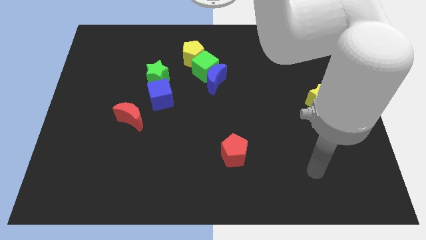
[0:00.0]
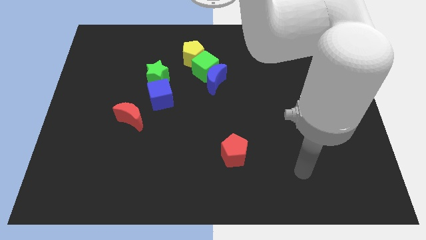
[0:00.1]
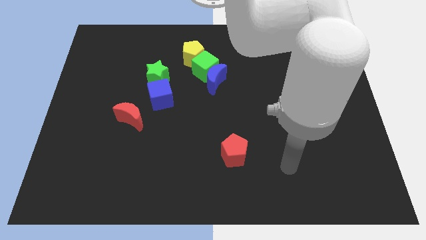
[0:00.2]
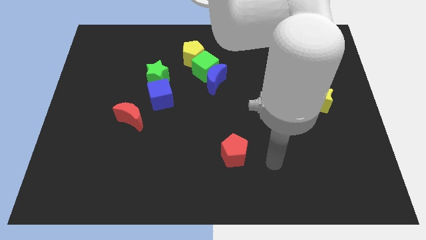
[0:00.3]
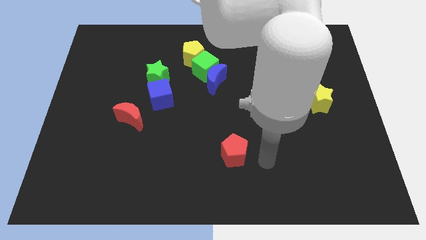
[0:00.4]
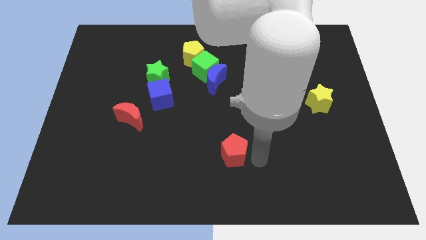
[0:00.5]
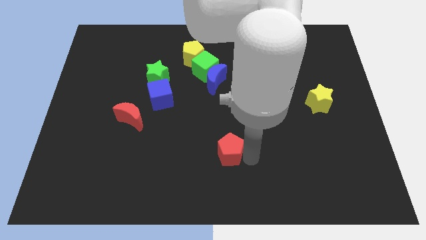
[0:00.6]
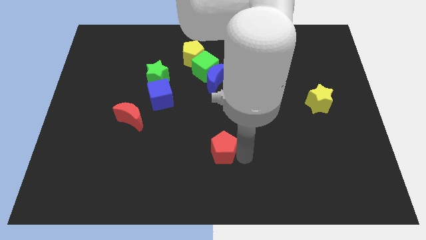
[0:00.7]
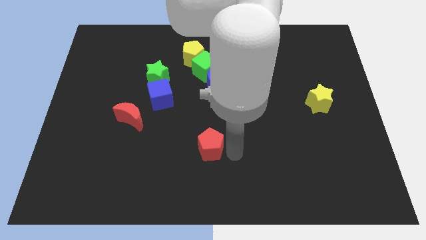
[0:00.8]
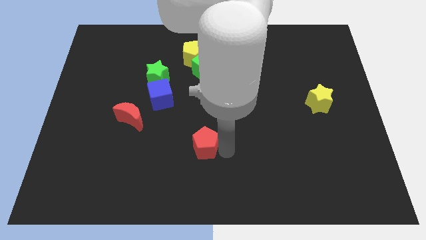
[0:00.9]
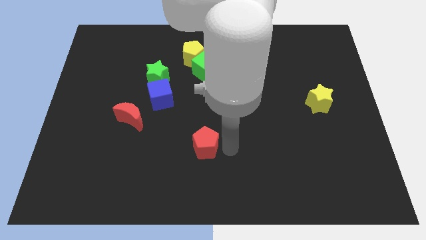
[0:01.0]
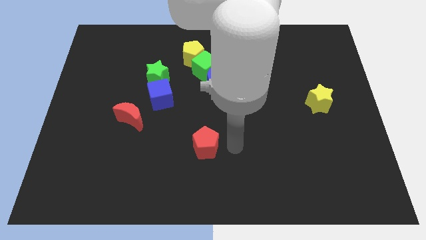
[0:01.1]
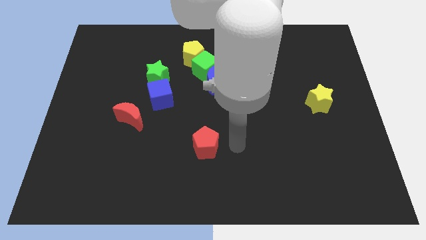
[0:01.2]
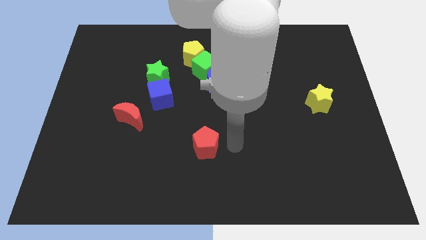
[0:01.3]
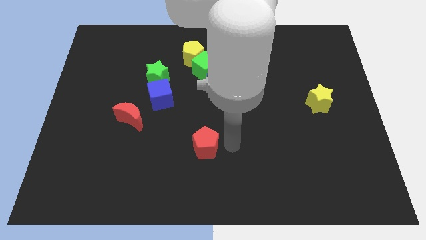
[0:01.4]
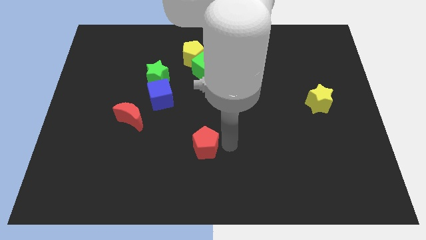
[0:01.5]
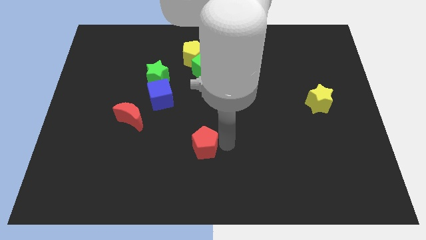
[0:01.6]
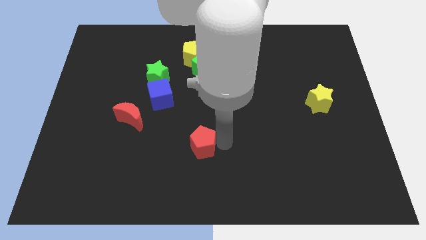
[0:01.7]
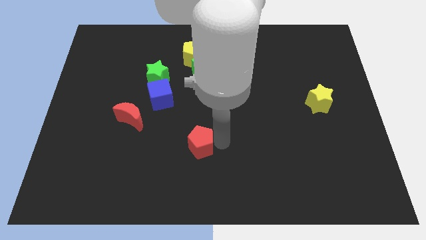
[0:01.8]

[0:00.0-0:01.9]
slide the red pentagon slightly left

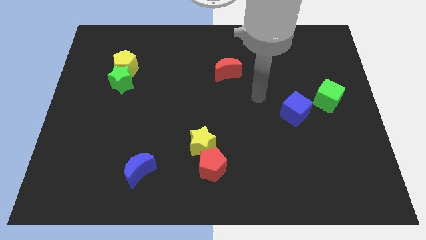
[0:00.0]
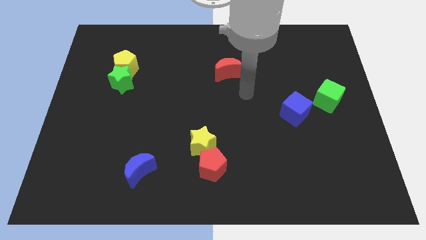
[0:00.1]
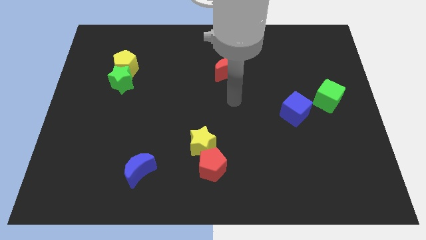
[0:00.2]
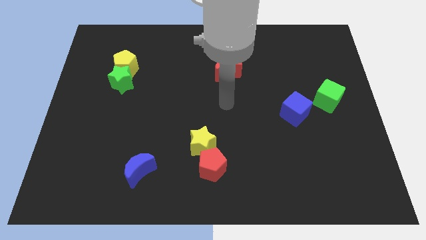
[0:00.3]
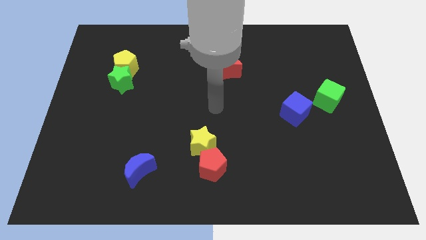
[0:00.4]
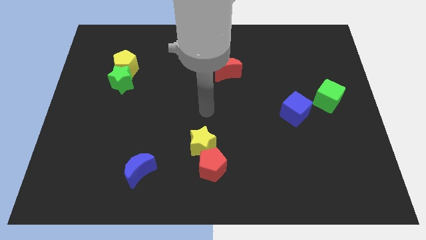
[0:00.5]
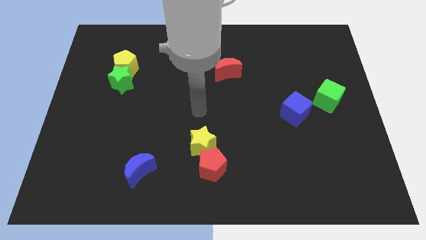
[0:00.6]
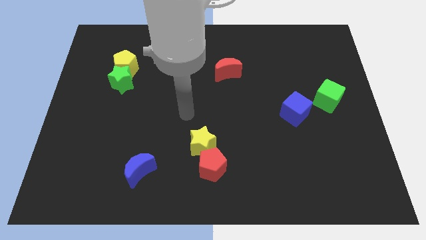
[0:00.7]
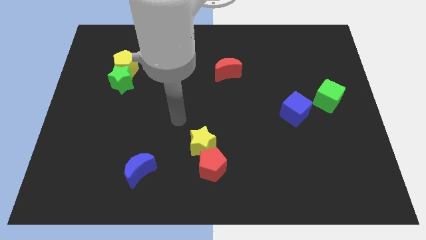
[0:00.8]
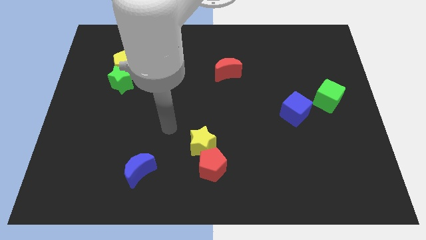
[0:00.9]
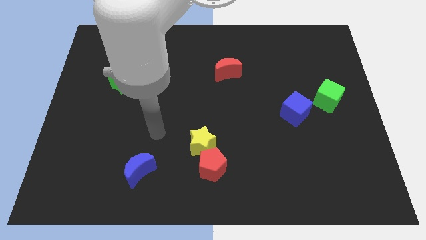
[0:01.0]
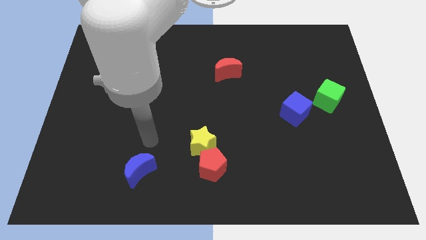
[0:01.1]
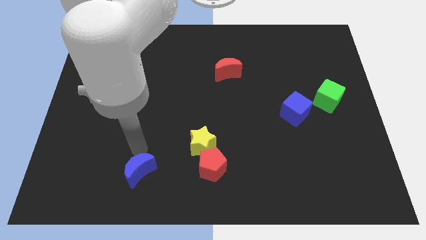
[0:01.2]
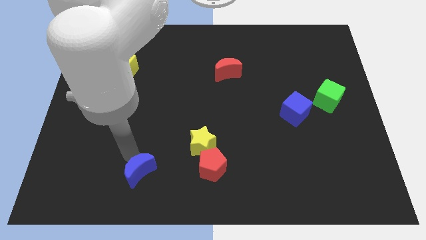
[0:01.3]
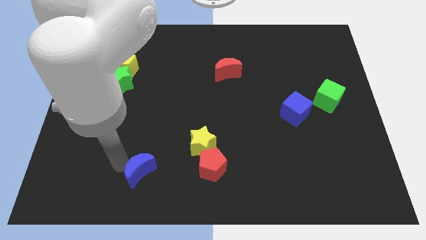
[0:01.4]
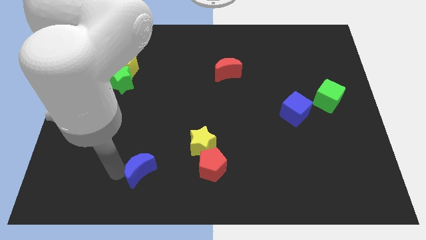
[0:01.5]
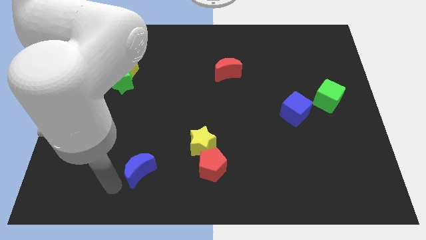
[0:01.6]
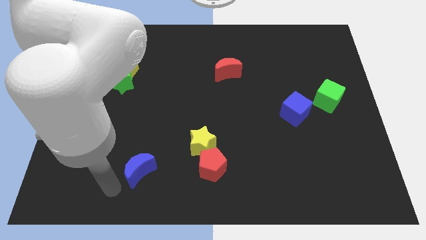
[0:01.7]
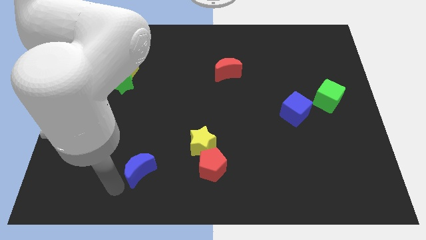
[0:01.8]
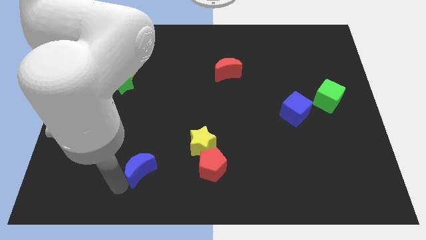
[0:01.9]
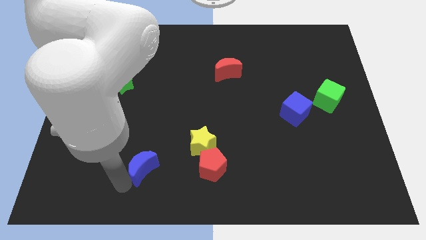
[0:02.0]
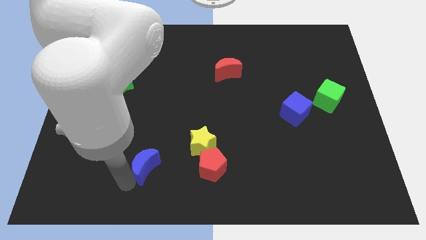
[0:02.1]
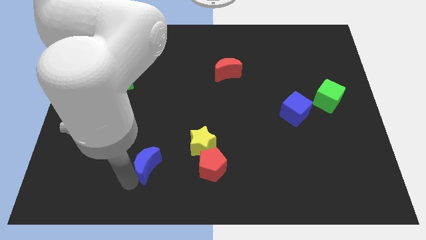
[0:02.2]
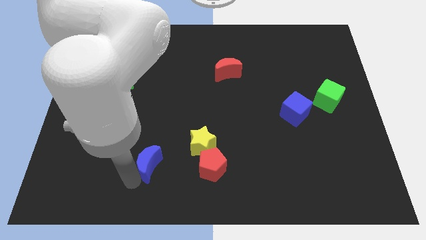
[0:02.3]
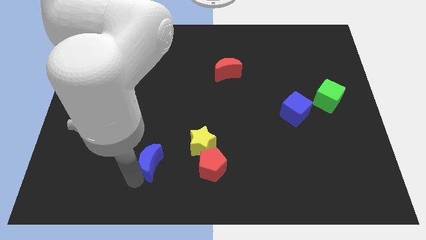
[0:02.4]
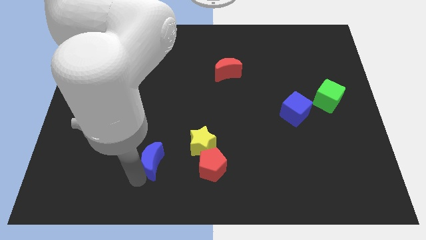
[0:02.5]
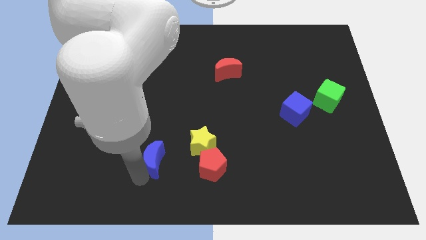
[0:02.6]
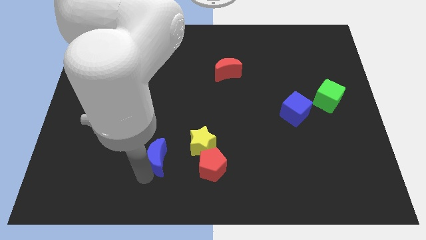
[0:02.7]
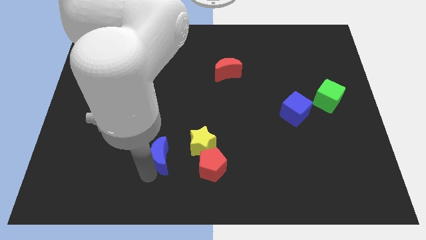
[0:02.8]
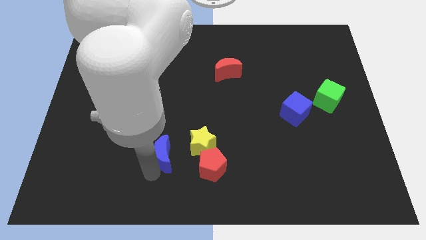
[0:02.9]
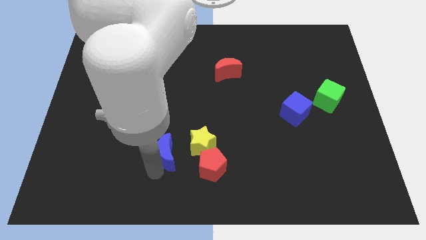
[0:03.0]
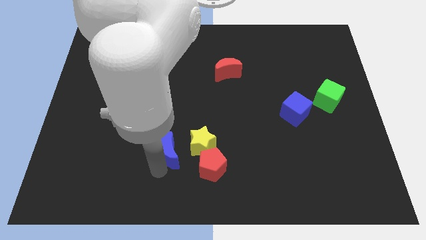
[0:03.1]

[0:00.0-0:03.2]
move the blue moon a bit diagonally up and right

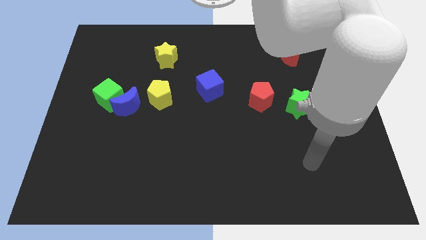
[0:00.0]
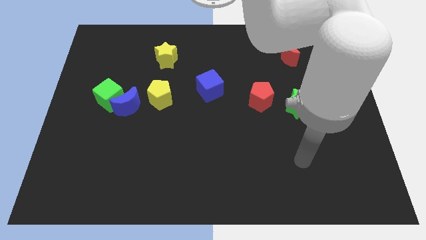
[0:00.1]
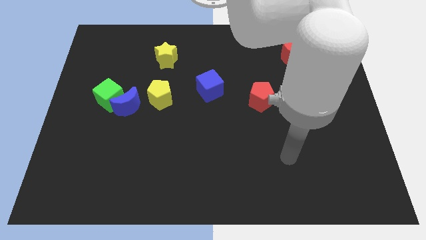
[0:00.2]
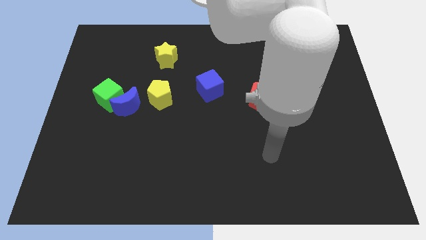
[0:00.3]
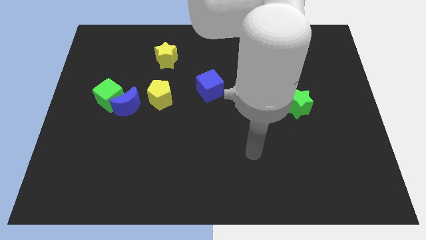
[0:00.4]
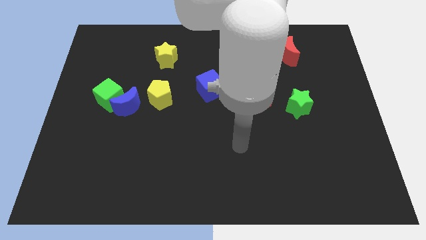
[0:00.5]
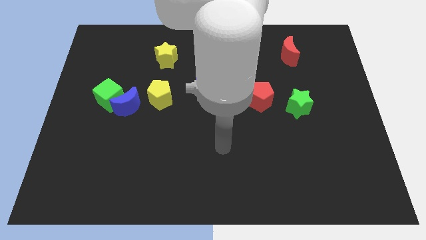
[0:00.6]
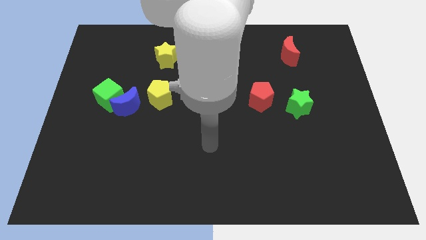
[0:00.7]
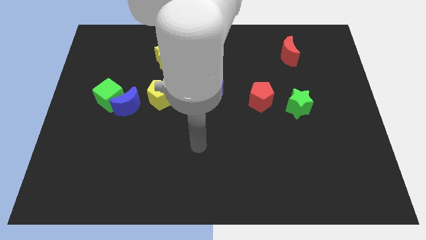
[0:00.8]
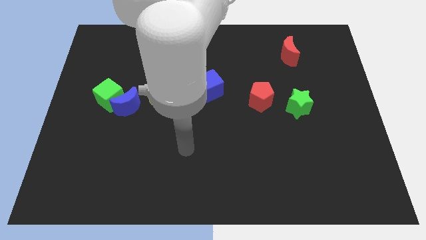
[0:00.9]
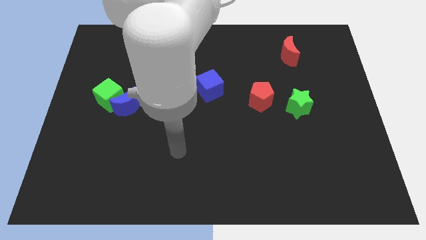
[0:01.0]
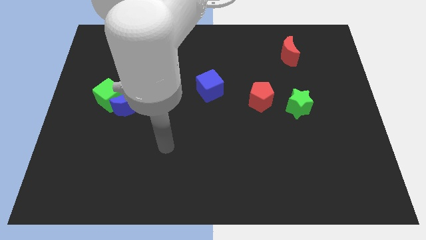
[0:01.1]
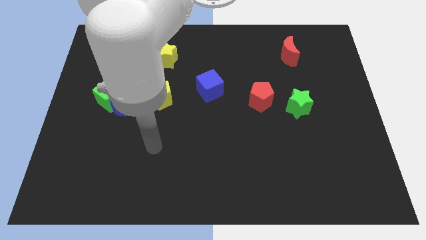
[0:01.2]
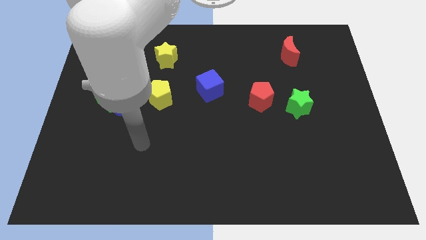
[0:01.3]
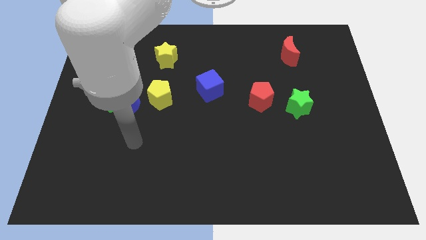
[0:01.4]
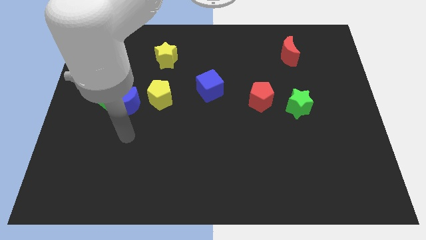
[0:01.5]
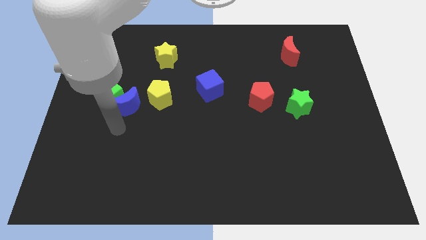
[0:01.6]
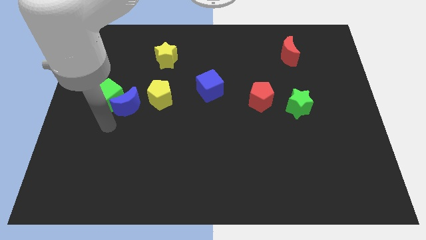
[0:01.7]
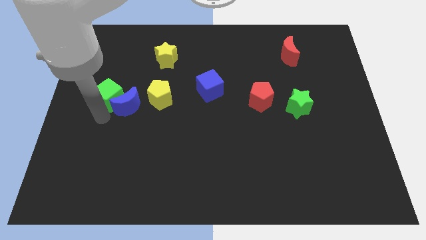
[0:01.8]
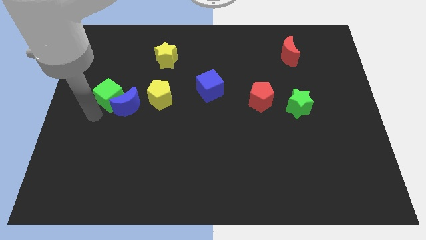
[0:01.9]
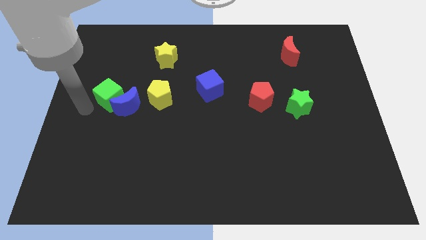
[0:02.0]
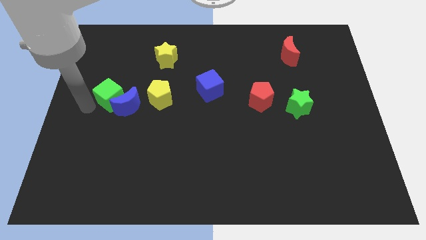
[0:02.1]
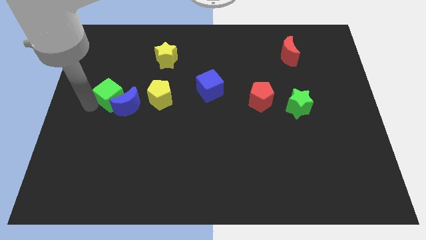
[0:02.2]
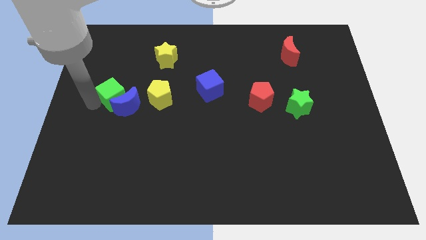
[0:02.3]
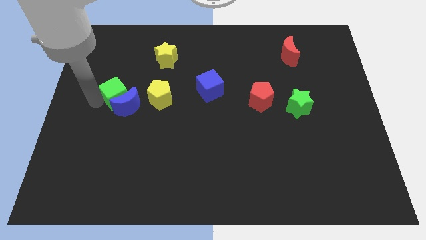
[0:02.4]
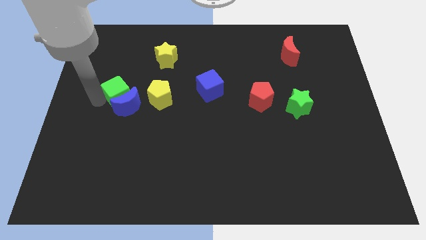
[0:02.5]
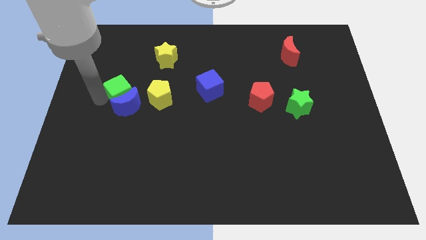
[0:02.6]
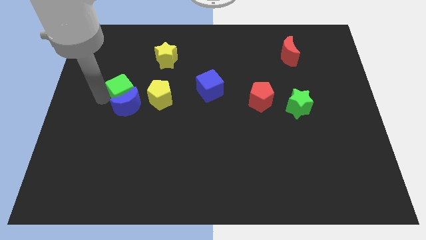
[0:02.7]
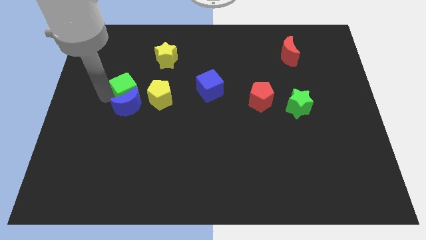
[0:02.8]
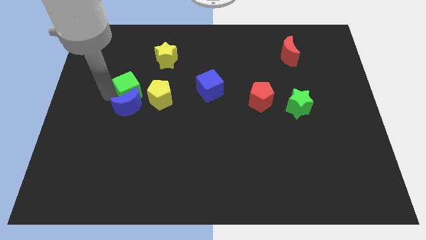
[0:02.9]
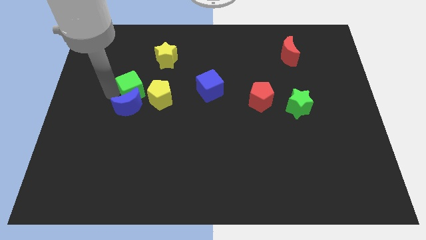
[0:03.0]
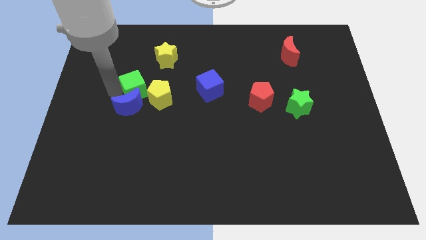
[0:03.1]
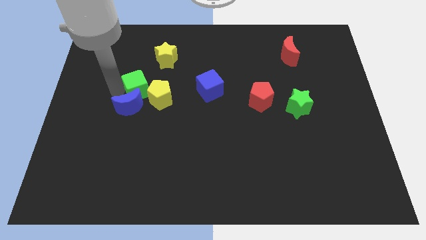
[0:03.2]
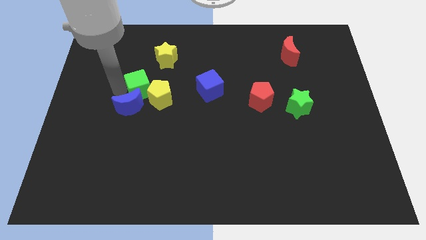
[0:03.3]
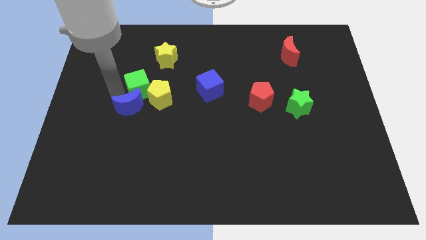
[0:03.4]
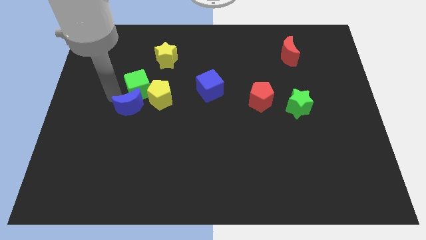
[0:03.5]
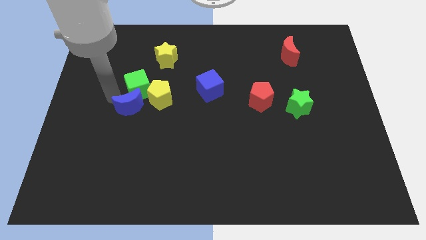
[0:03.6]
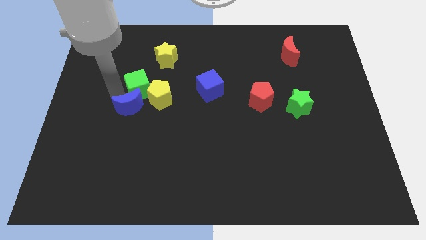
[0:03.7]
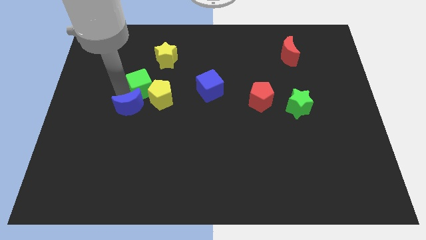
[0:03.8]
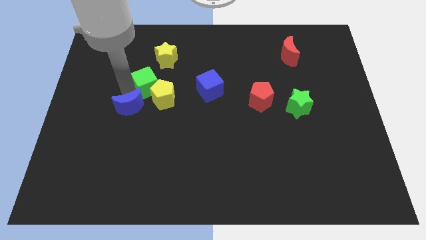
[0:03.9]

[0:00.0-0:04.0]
slide the green cube slightly to the right
